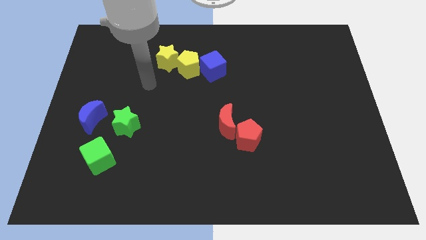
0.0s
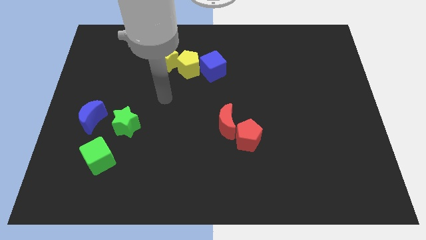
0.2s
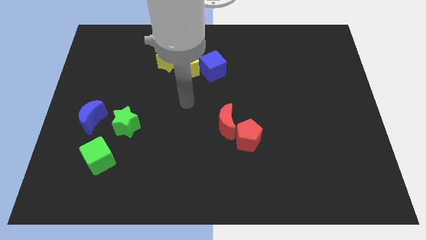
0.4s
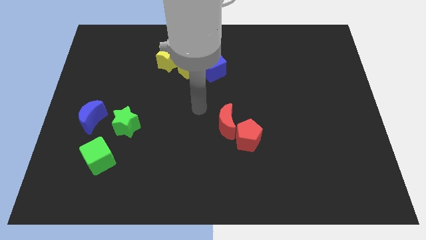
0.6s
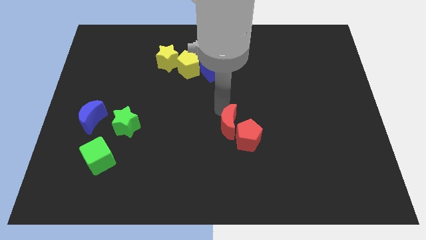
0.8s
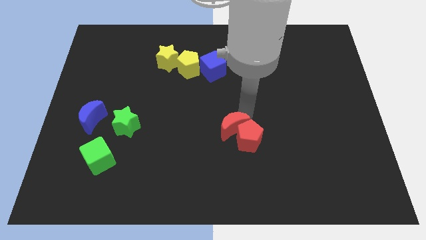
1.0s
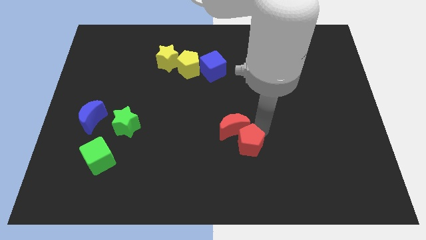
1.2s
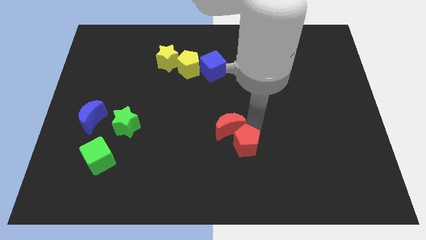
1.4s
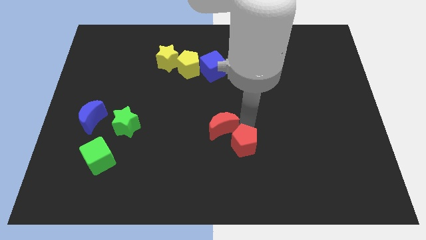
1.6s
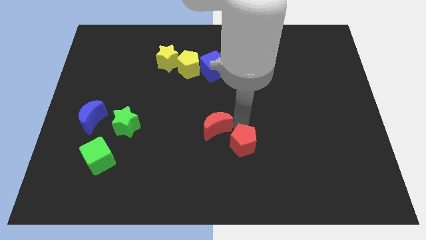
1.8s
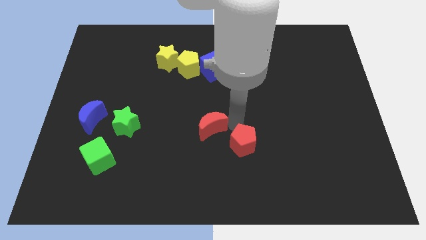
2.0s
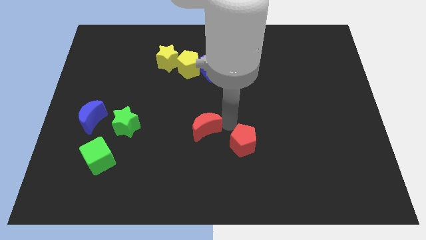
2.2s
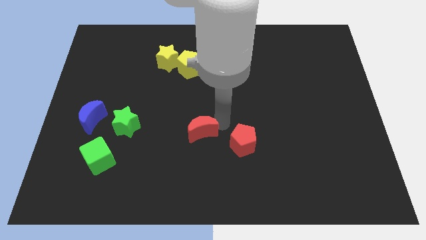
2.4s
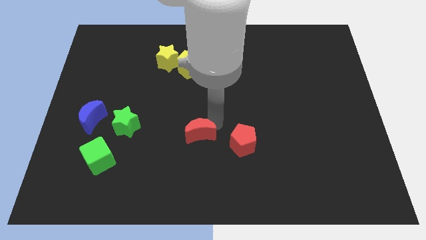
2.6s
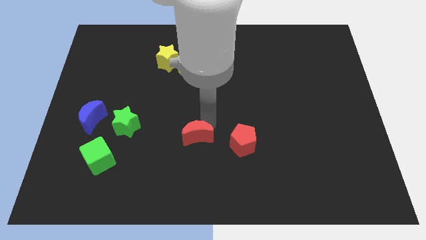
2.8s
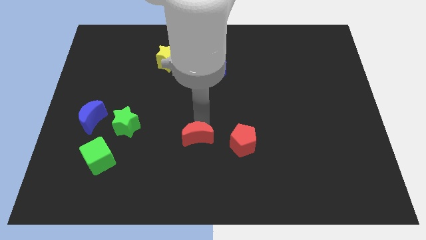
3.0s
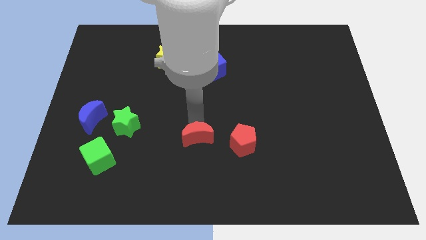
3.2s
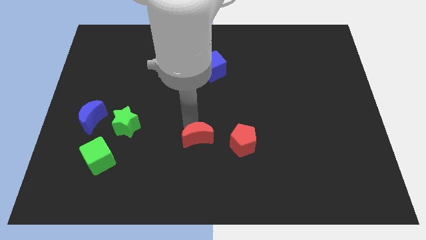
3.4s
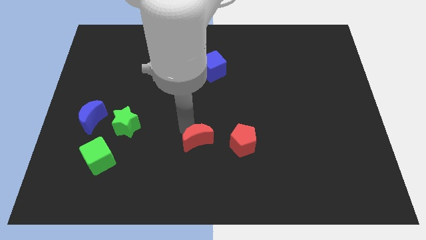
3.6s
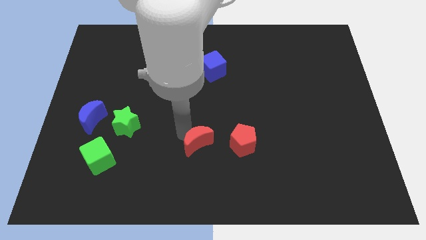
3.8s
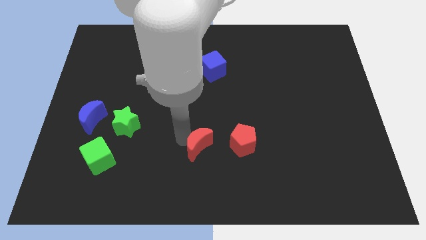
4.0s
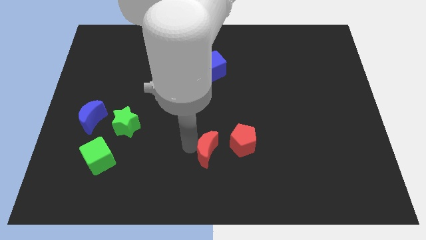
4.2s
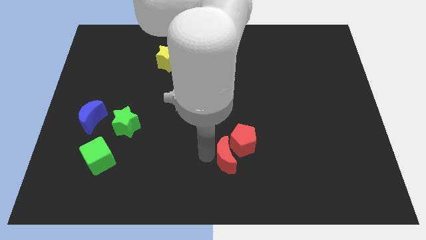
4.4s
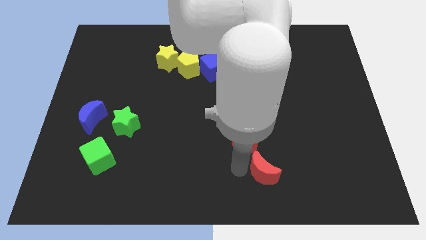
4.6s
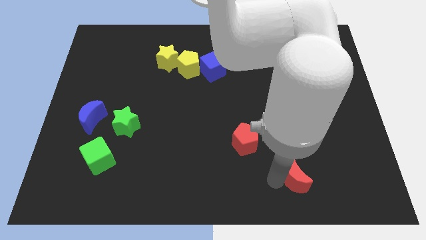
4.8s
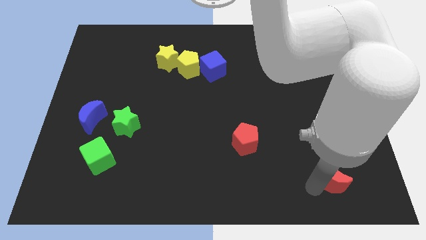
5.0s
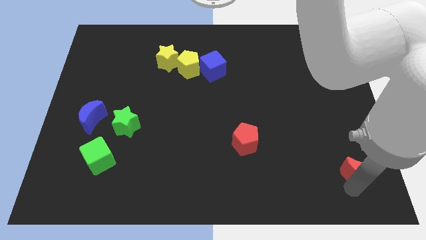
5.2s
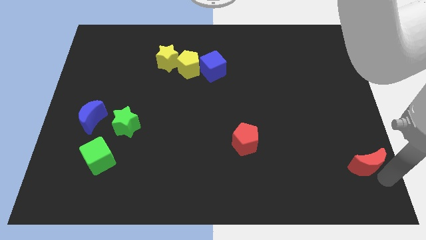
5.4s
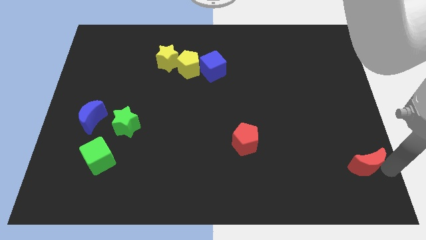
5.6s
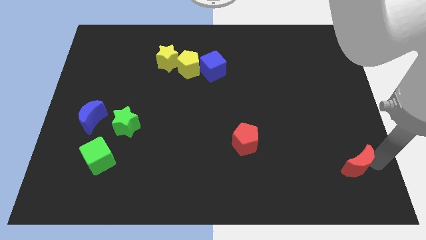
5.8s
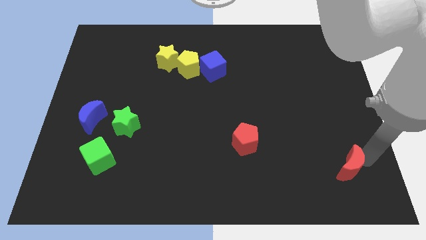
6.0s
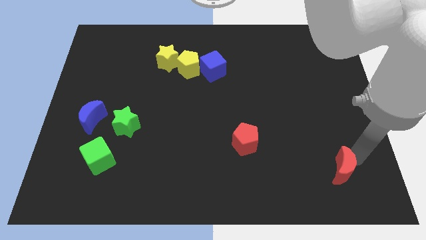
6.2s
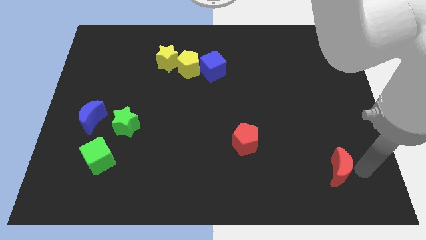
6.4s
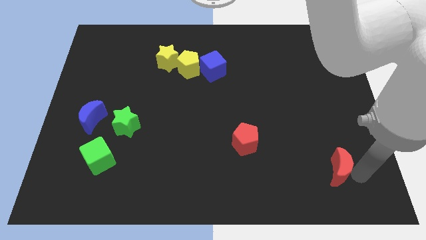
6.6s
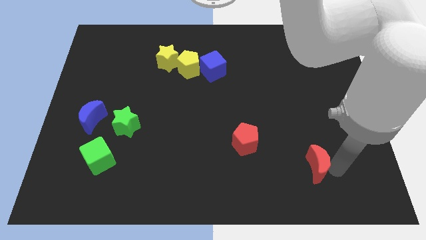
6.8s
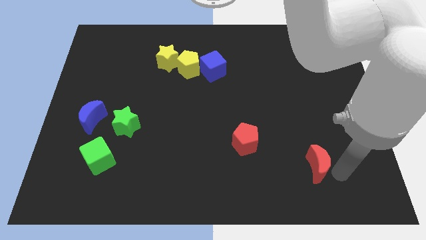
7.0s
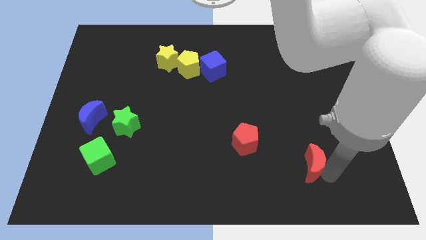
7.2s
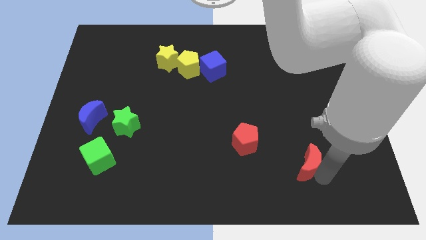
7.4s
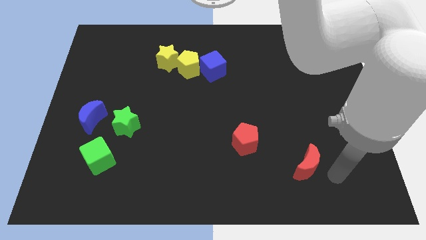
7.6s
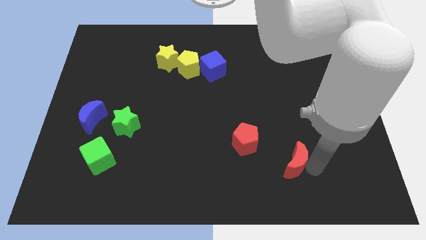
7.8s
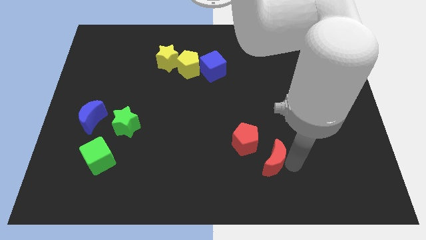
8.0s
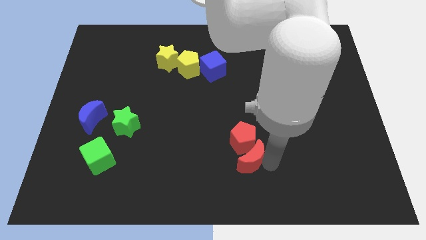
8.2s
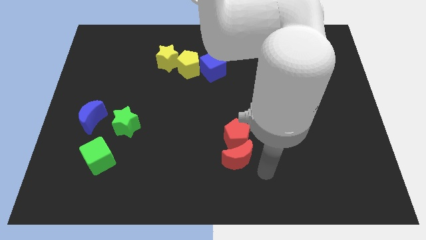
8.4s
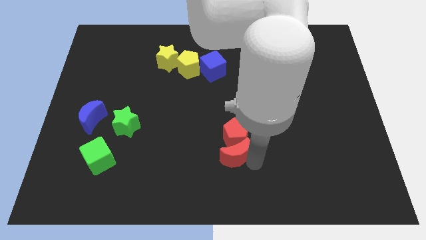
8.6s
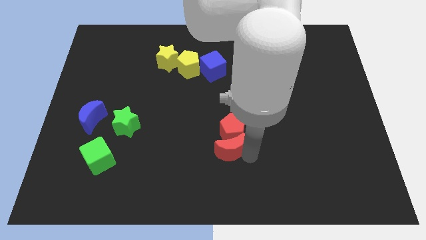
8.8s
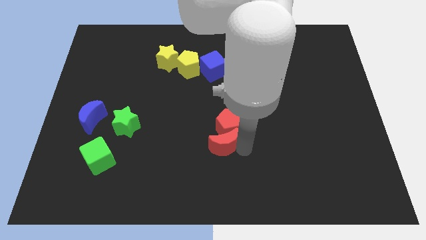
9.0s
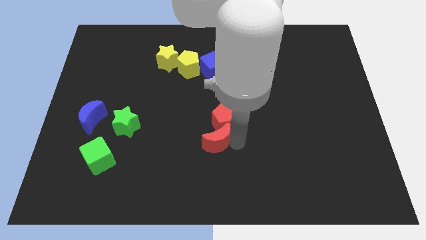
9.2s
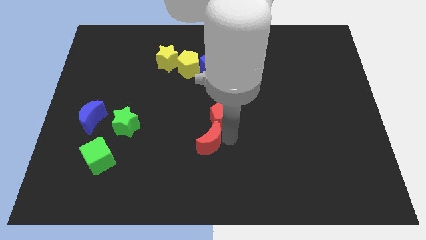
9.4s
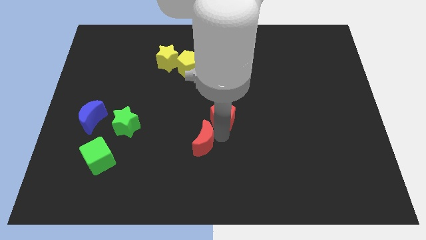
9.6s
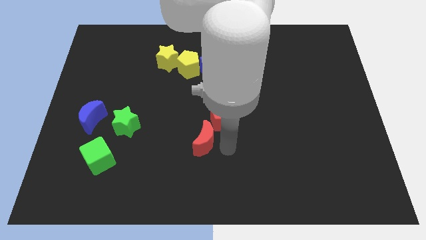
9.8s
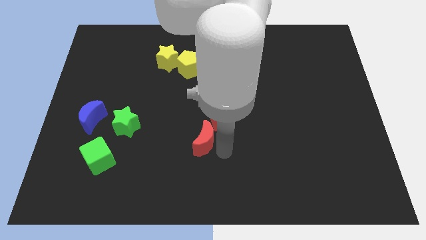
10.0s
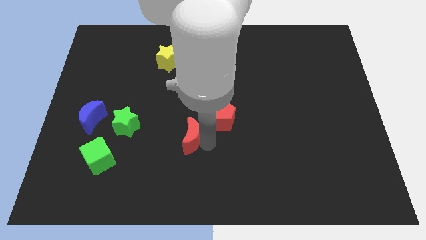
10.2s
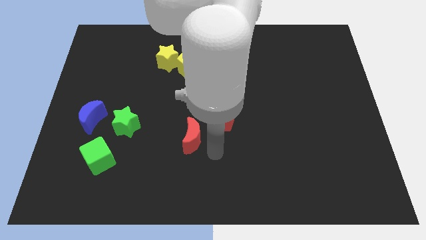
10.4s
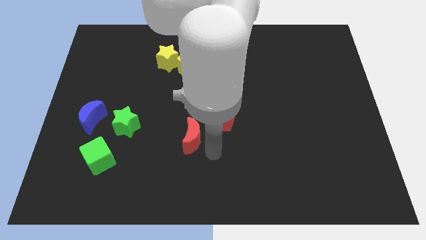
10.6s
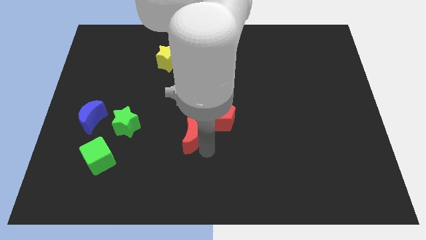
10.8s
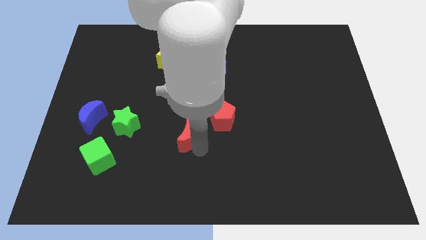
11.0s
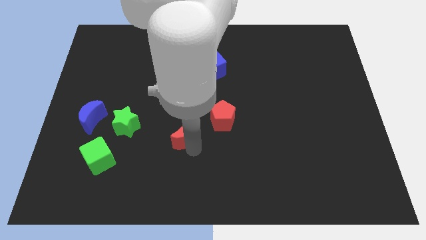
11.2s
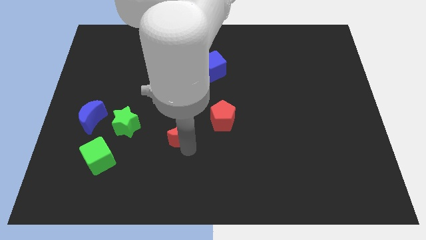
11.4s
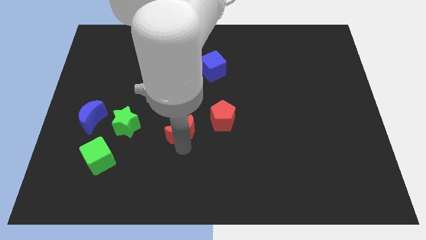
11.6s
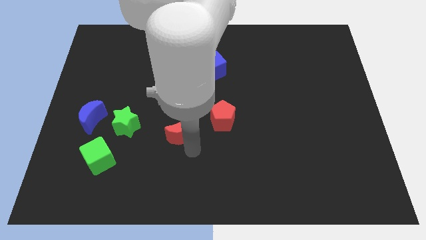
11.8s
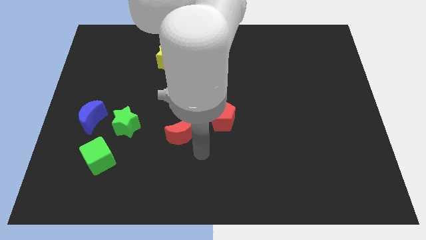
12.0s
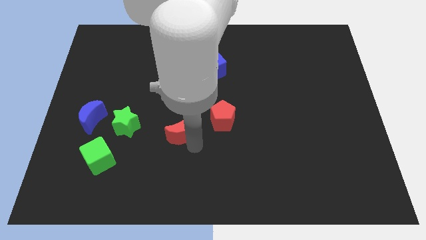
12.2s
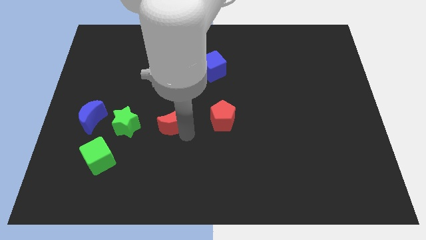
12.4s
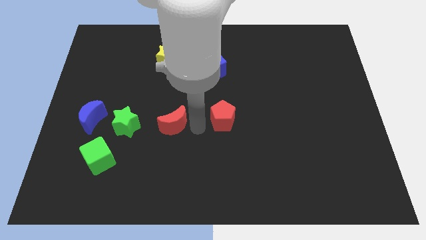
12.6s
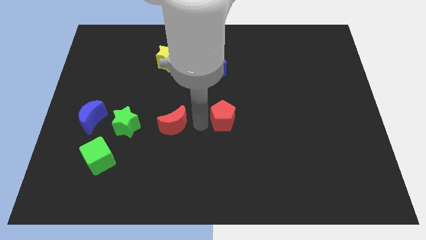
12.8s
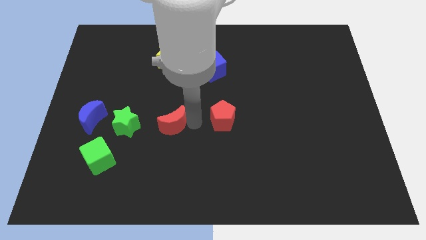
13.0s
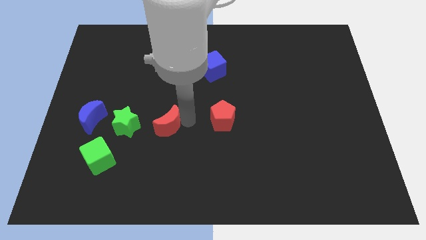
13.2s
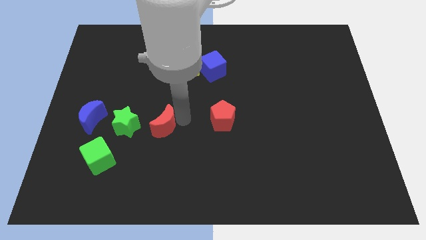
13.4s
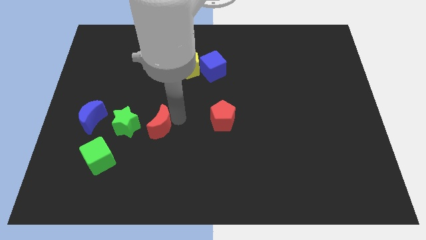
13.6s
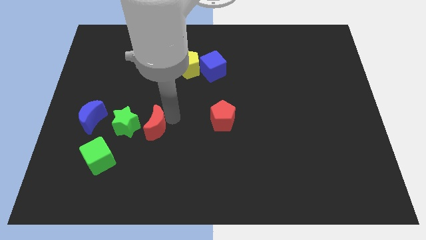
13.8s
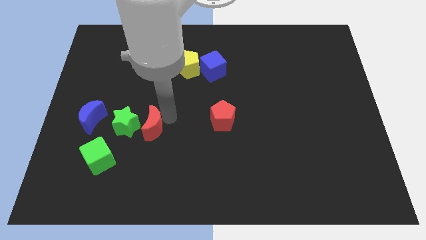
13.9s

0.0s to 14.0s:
put the red moon next to the green star

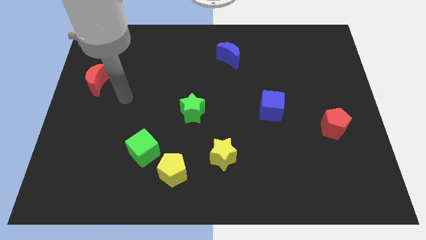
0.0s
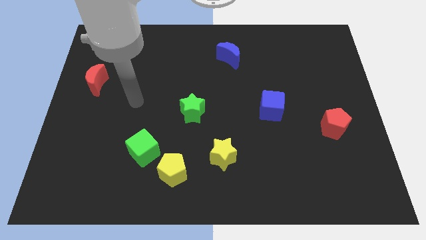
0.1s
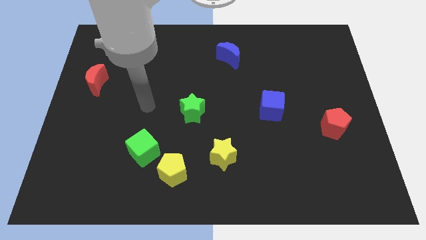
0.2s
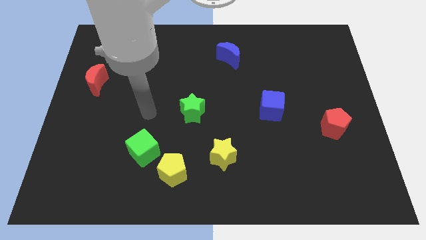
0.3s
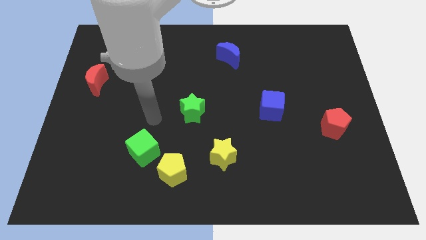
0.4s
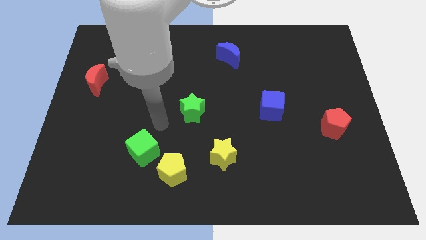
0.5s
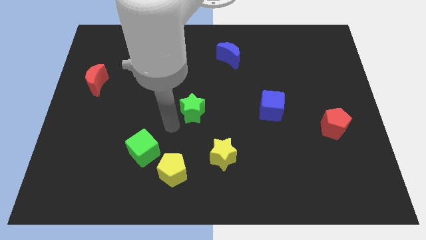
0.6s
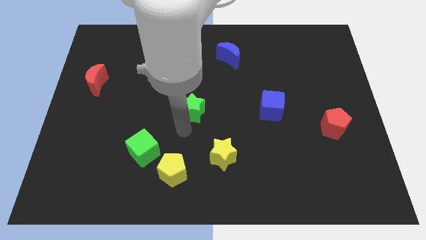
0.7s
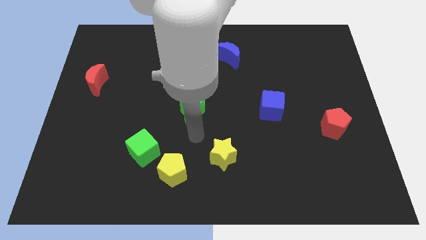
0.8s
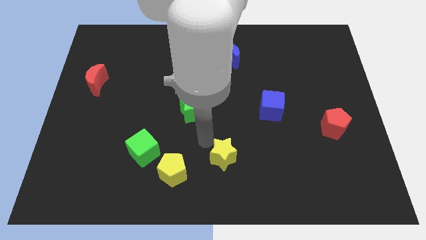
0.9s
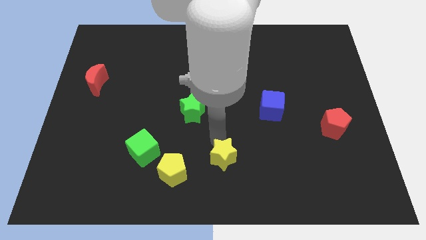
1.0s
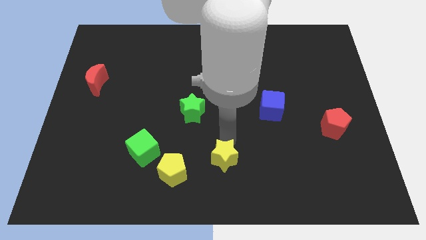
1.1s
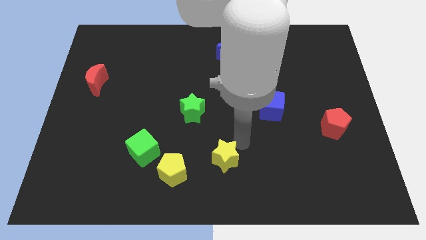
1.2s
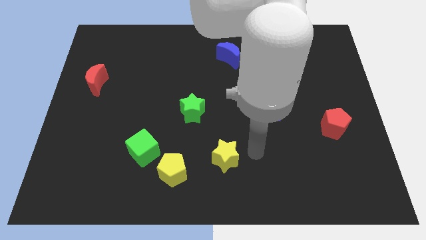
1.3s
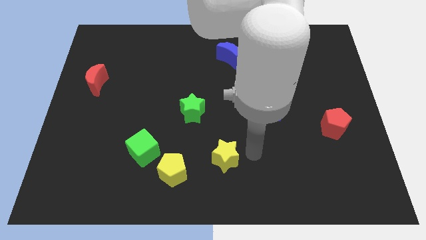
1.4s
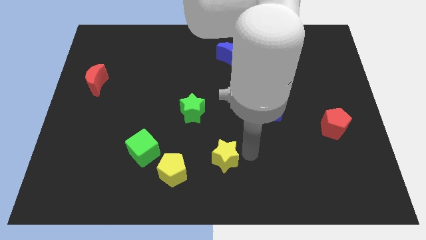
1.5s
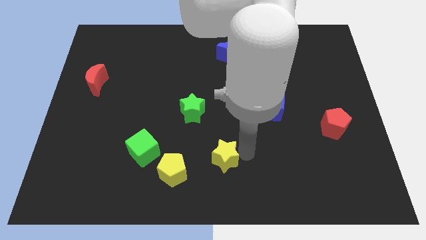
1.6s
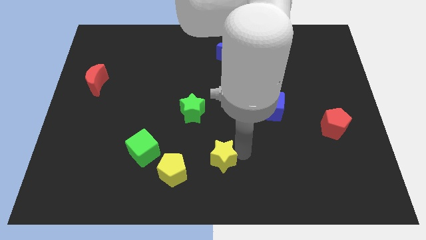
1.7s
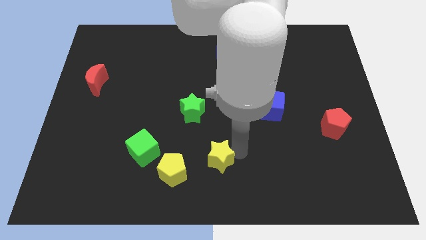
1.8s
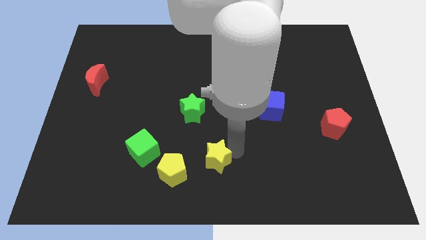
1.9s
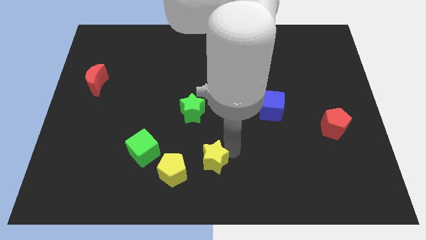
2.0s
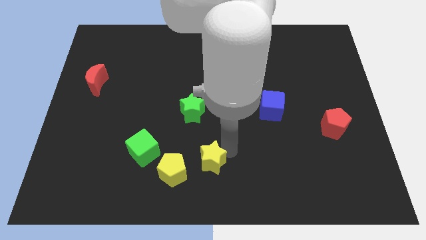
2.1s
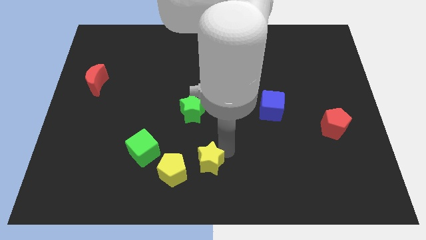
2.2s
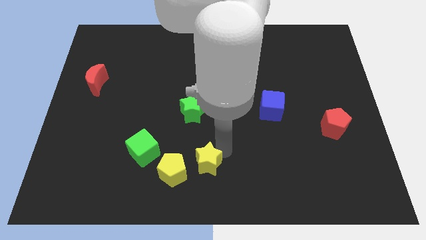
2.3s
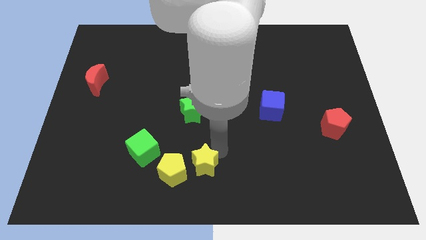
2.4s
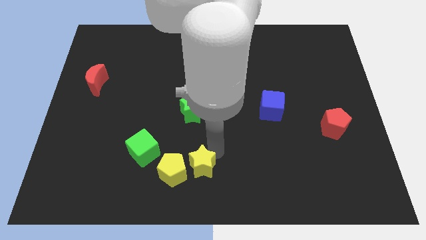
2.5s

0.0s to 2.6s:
push the yellow star next to the yellow pentagon
